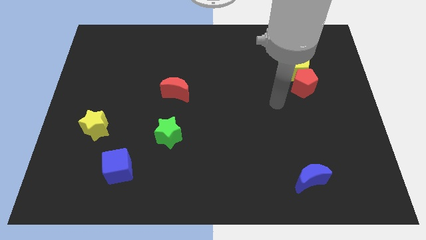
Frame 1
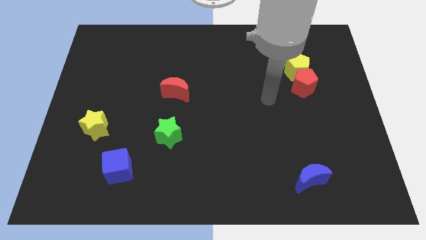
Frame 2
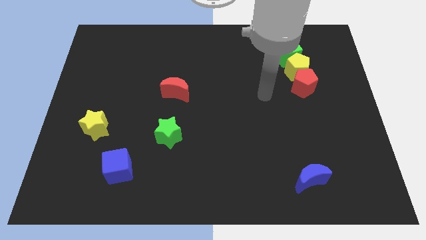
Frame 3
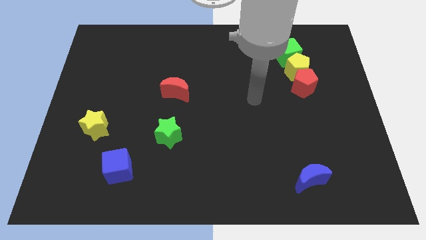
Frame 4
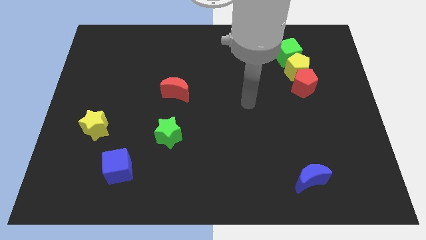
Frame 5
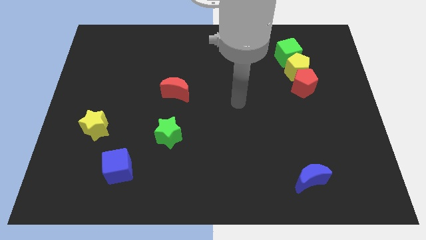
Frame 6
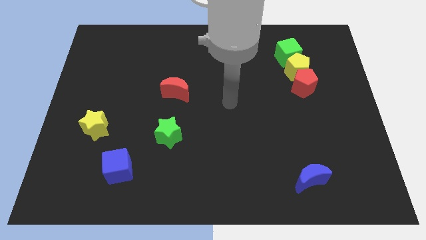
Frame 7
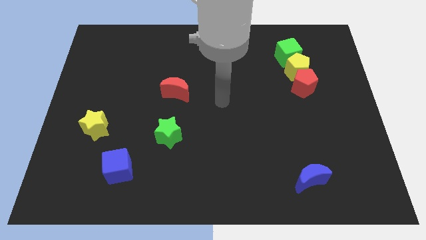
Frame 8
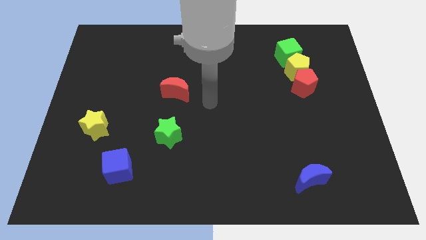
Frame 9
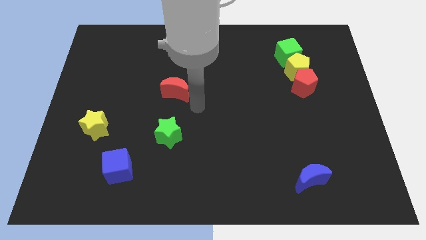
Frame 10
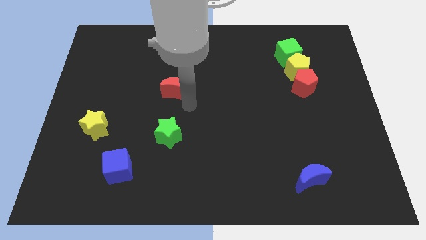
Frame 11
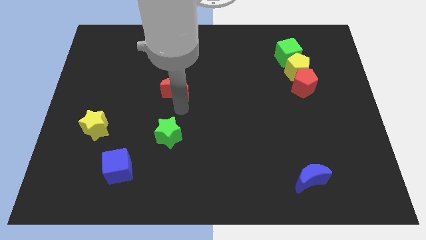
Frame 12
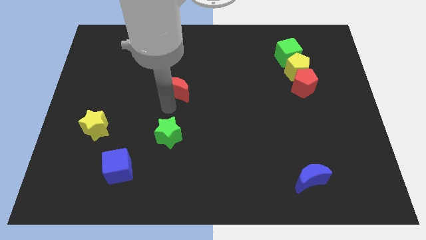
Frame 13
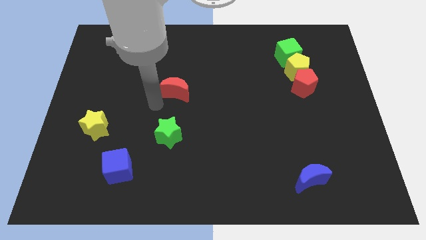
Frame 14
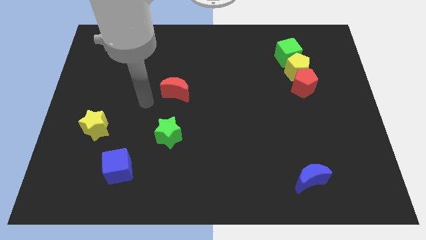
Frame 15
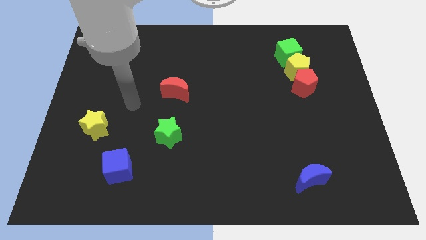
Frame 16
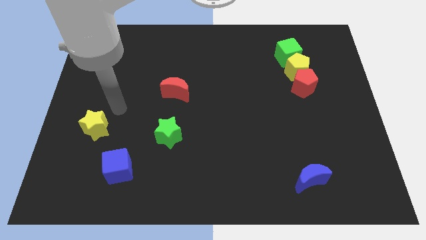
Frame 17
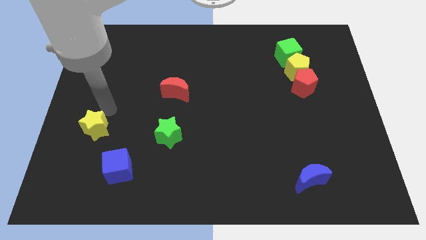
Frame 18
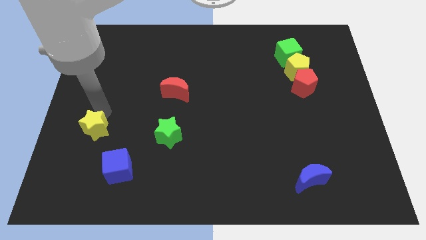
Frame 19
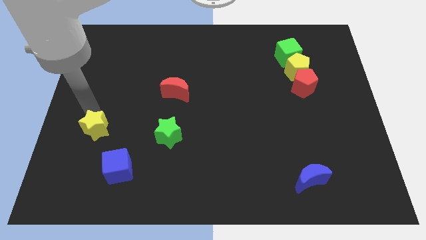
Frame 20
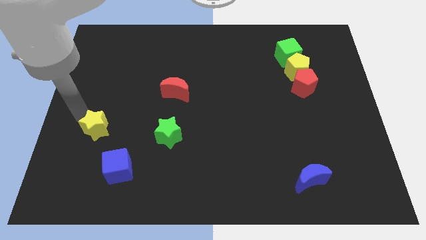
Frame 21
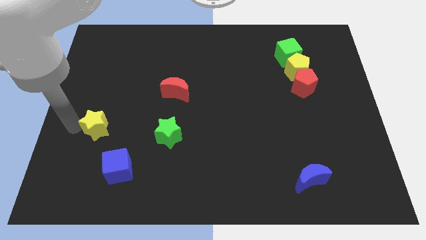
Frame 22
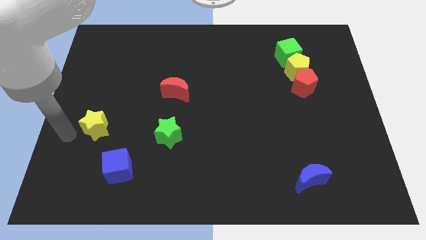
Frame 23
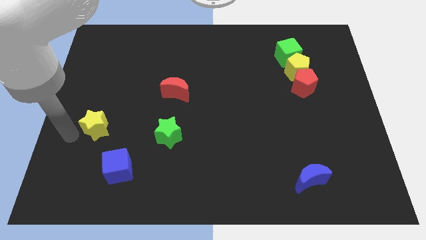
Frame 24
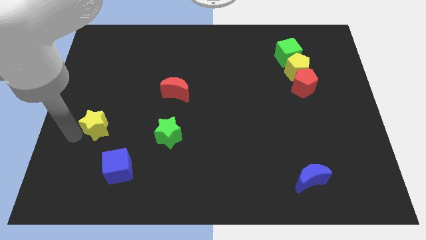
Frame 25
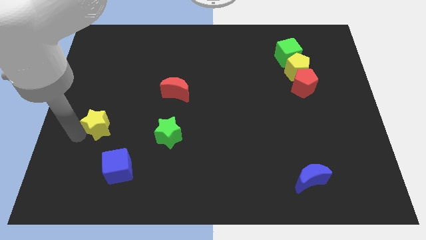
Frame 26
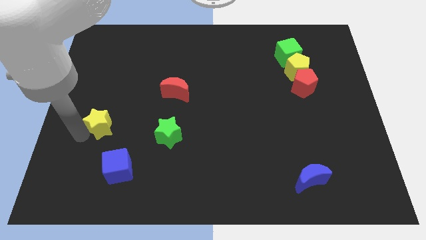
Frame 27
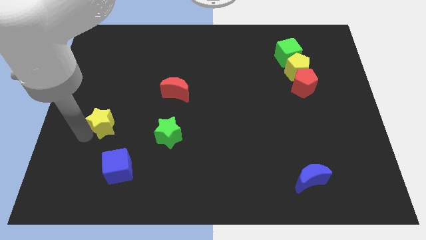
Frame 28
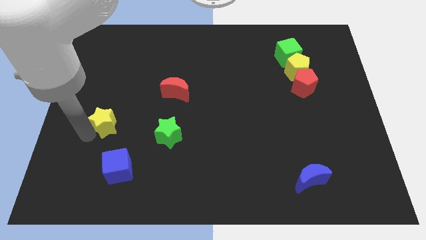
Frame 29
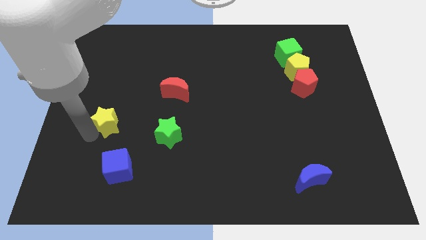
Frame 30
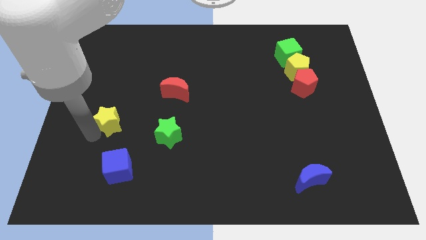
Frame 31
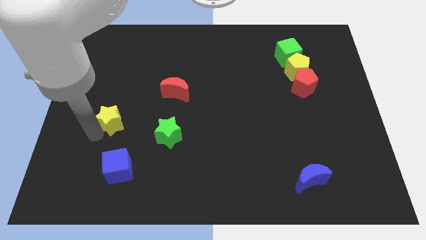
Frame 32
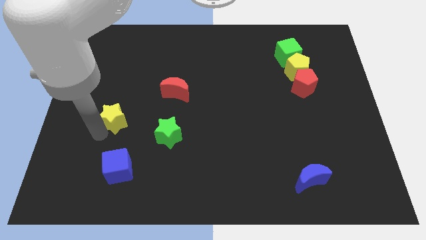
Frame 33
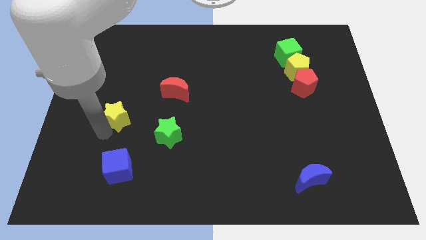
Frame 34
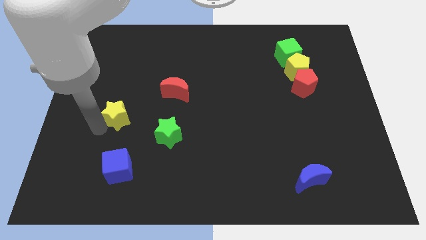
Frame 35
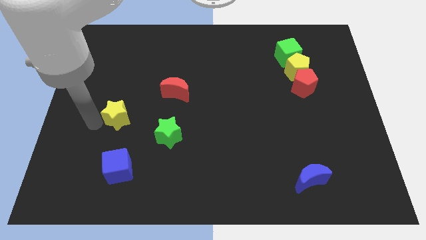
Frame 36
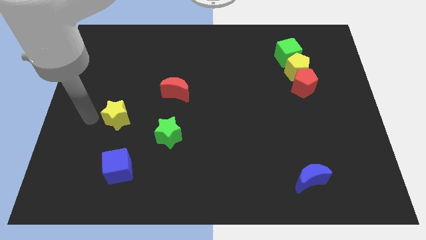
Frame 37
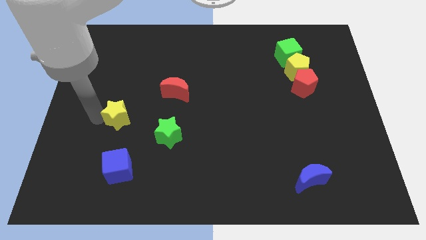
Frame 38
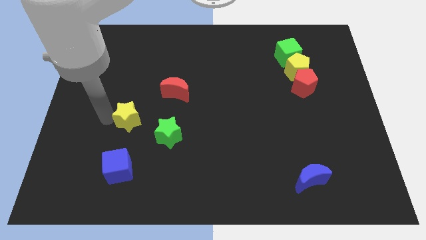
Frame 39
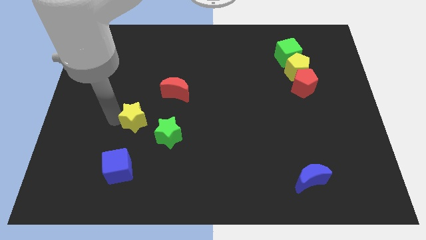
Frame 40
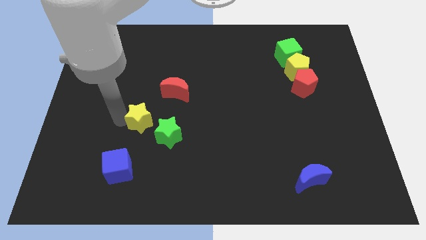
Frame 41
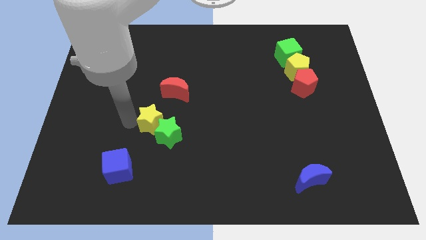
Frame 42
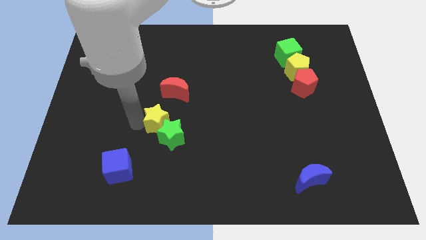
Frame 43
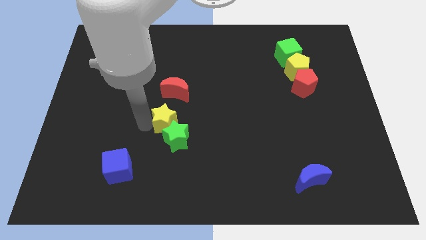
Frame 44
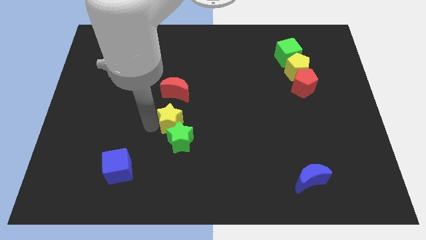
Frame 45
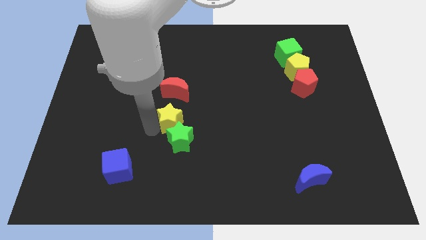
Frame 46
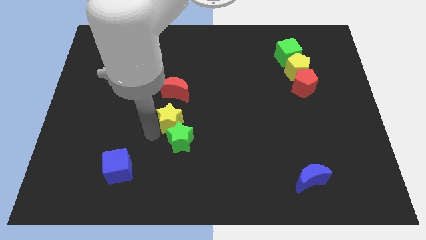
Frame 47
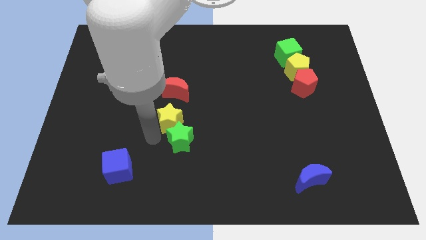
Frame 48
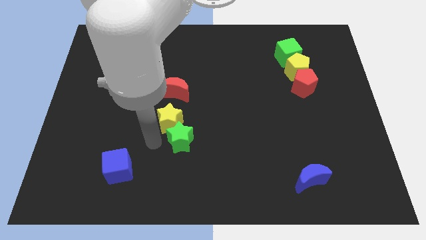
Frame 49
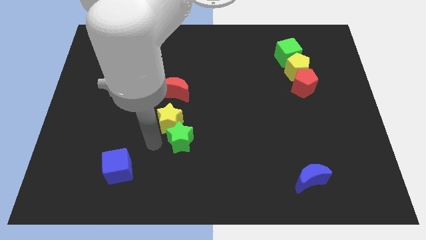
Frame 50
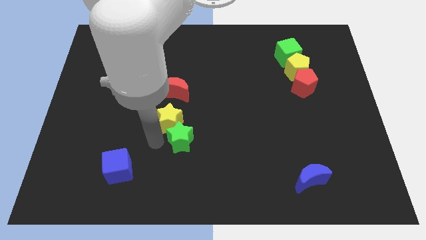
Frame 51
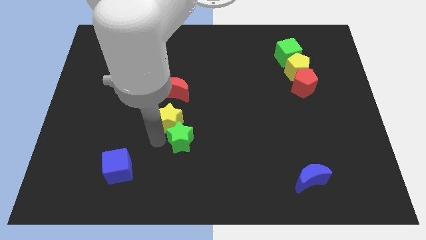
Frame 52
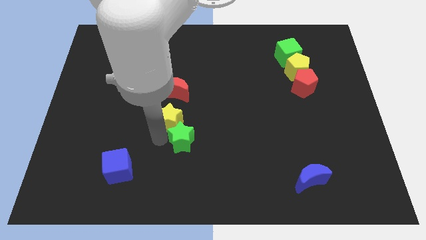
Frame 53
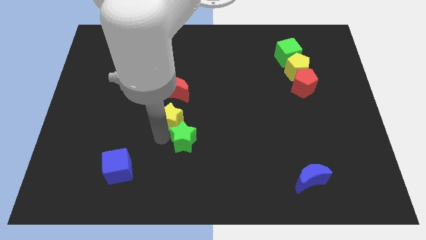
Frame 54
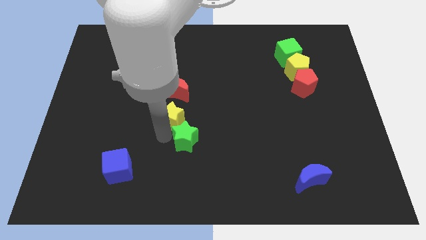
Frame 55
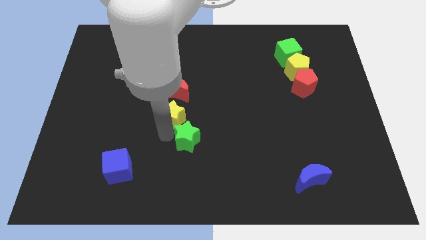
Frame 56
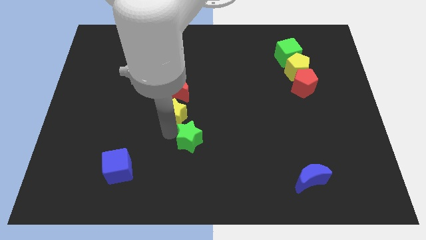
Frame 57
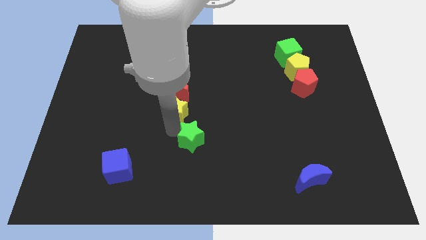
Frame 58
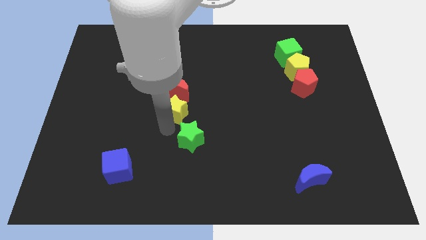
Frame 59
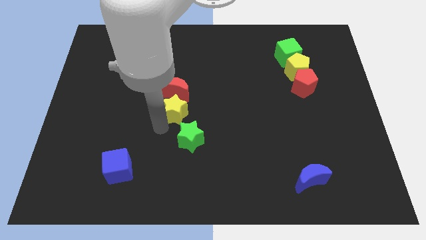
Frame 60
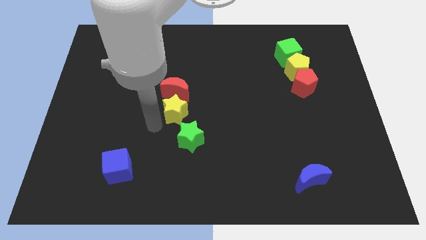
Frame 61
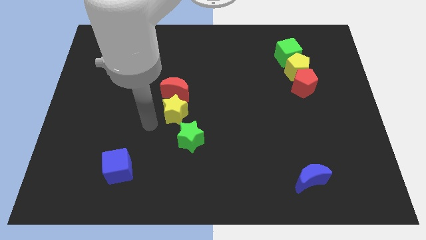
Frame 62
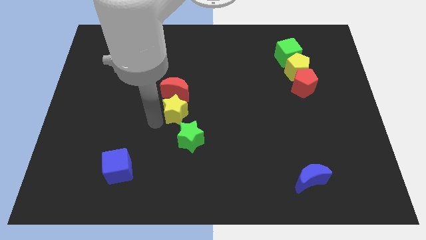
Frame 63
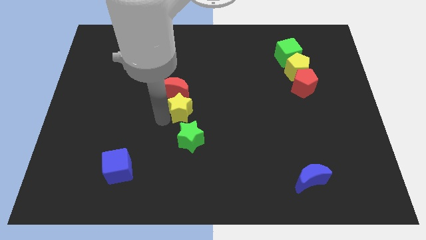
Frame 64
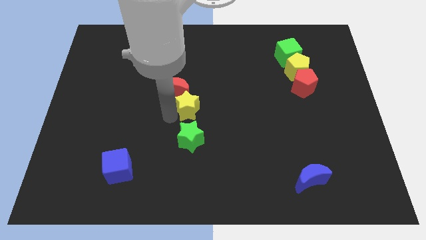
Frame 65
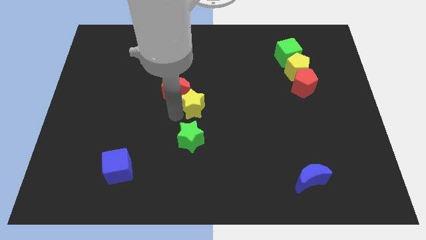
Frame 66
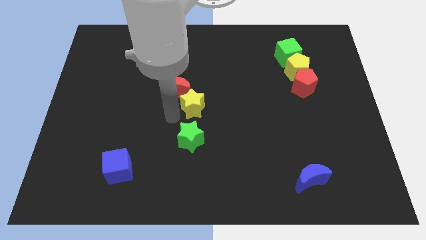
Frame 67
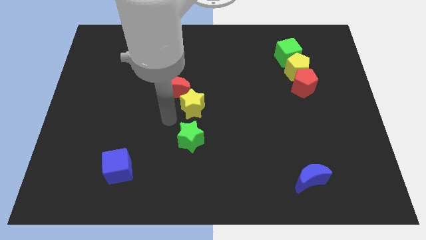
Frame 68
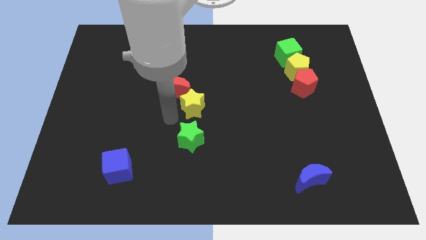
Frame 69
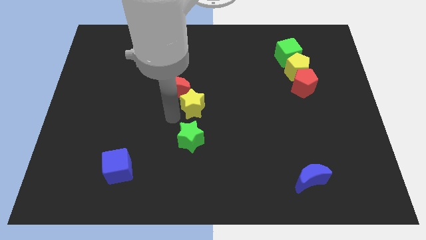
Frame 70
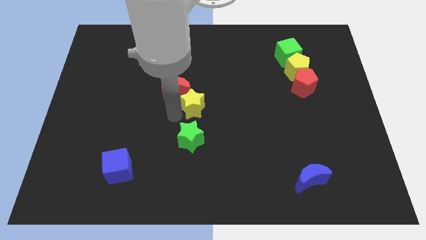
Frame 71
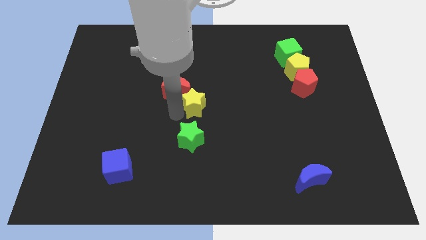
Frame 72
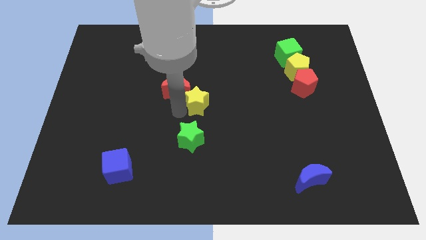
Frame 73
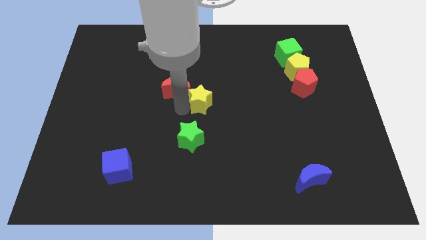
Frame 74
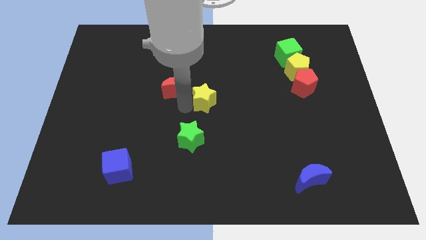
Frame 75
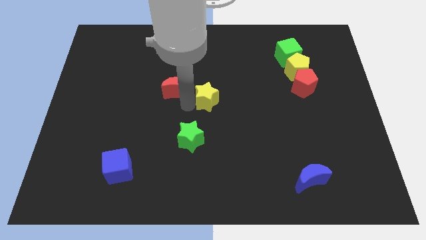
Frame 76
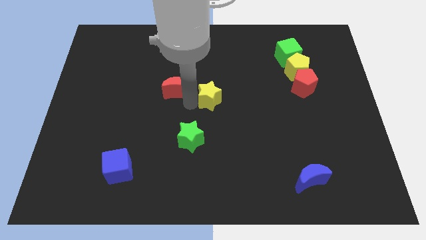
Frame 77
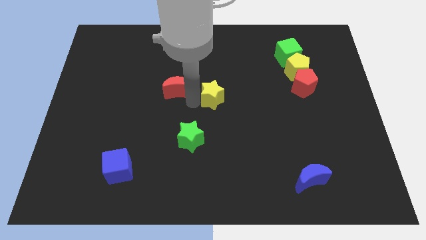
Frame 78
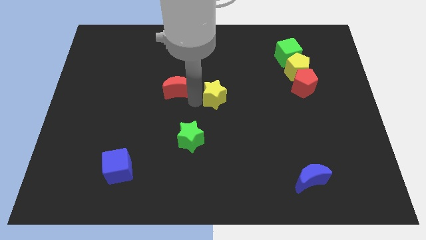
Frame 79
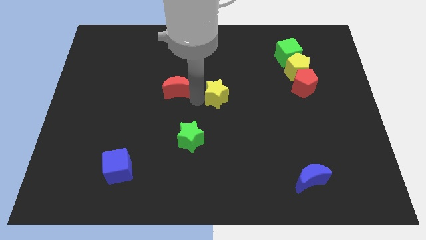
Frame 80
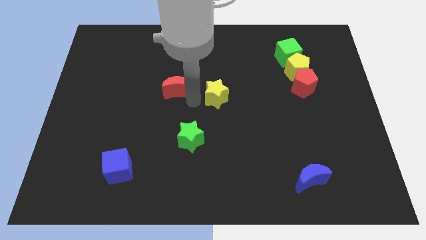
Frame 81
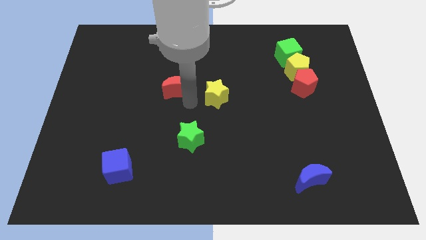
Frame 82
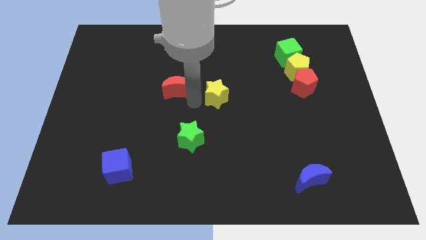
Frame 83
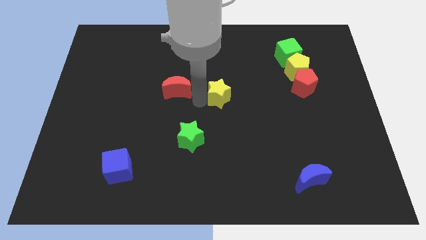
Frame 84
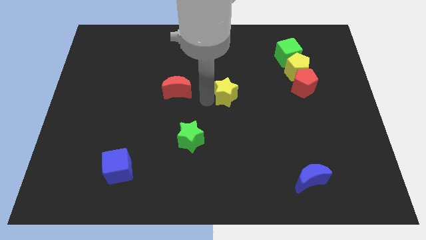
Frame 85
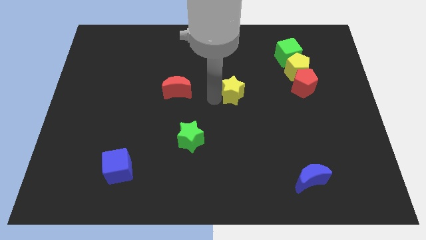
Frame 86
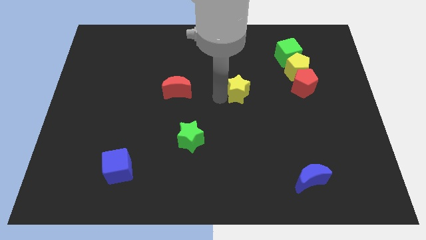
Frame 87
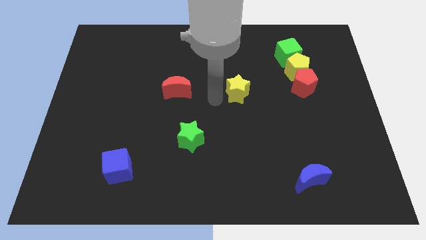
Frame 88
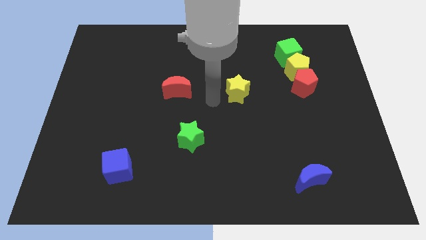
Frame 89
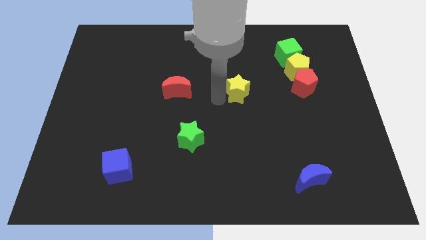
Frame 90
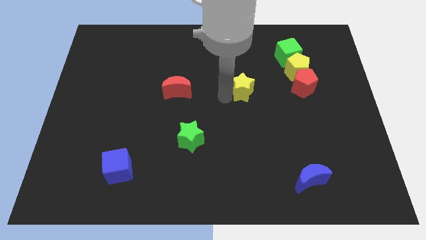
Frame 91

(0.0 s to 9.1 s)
move the yellow star left of the red pentagon
